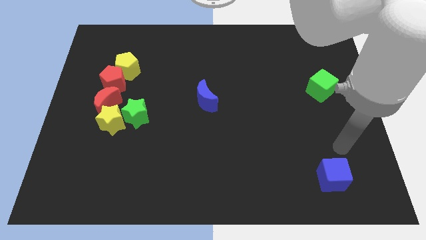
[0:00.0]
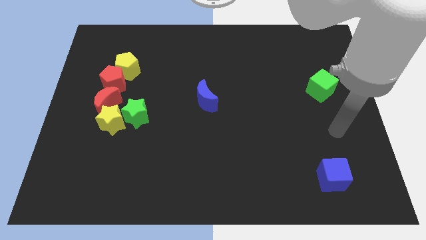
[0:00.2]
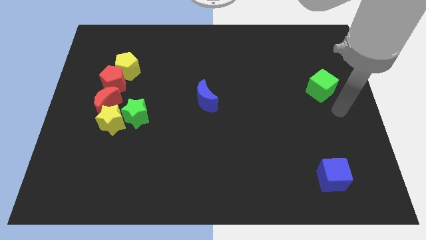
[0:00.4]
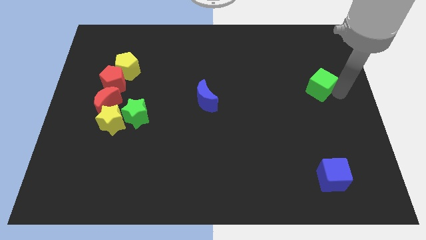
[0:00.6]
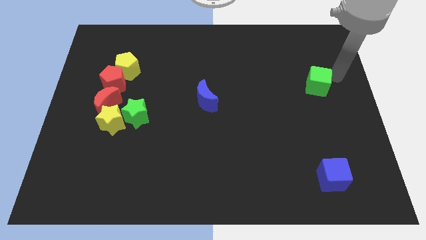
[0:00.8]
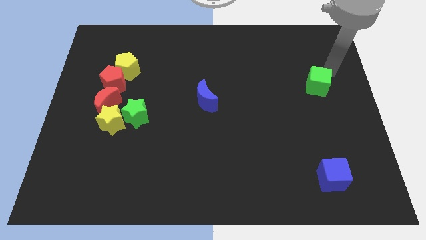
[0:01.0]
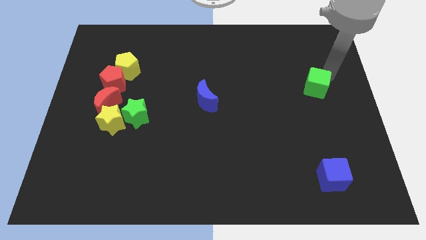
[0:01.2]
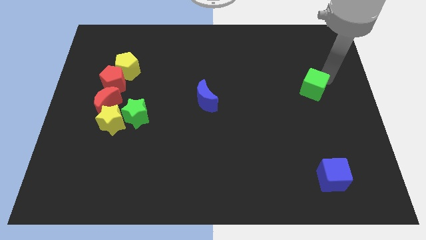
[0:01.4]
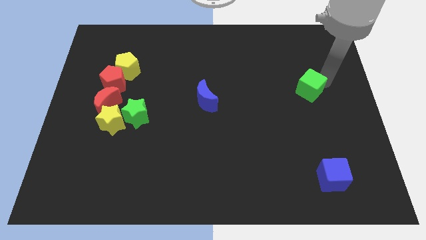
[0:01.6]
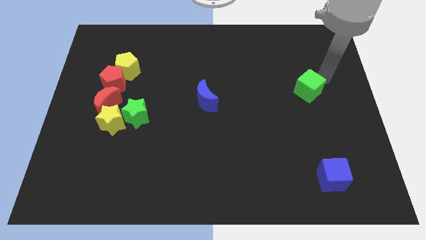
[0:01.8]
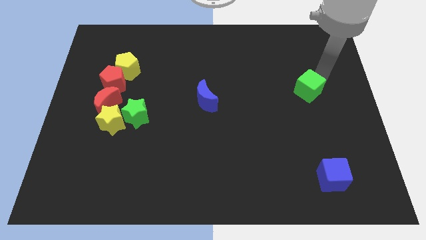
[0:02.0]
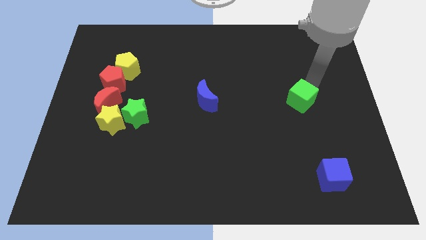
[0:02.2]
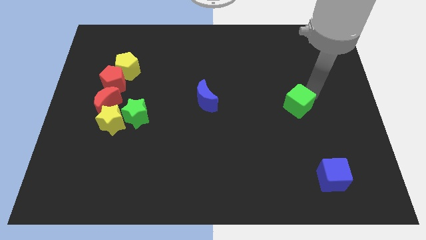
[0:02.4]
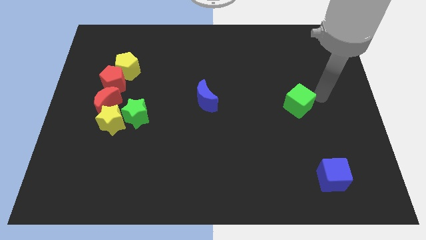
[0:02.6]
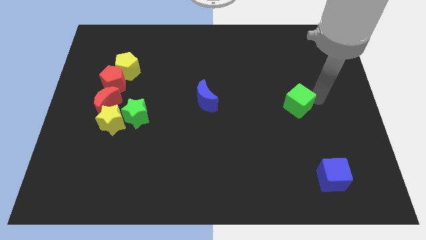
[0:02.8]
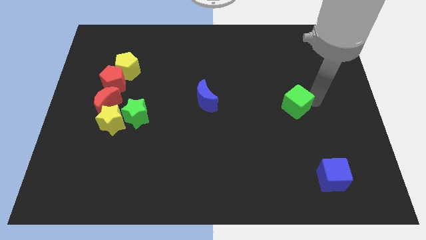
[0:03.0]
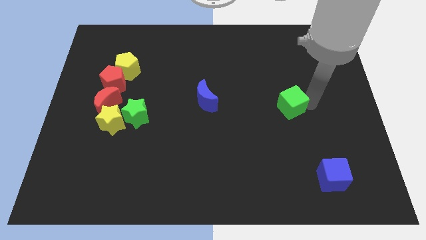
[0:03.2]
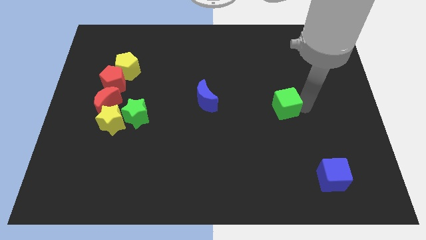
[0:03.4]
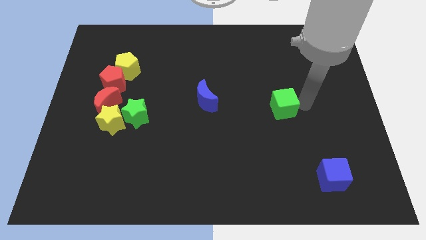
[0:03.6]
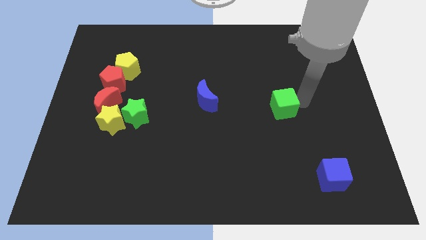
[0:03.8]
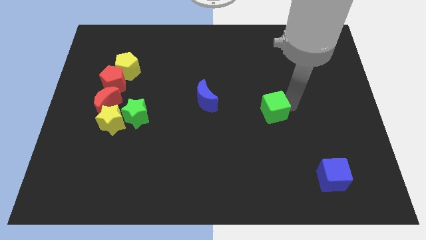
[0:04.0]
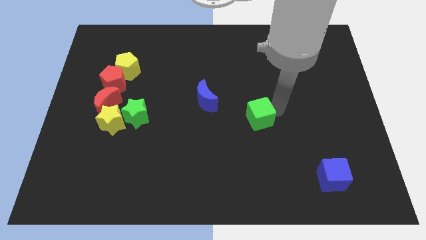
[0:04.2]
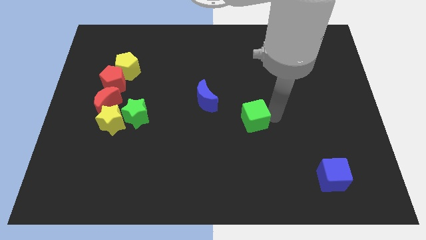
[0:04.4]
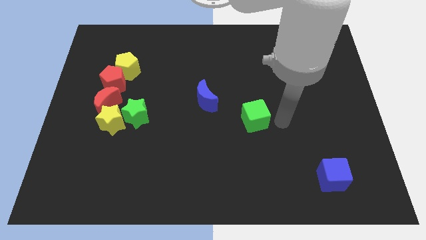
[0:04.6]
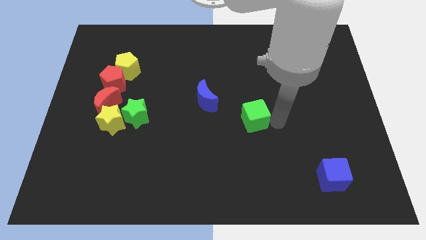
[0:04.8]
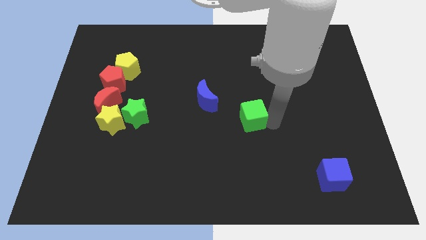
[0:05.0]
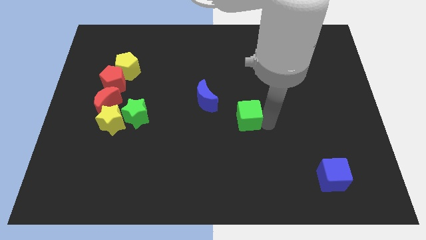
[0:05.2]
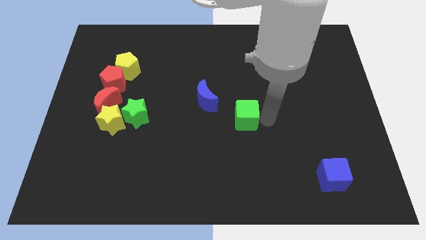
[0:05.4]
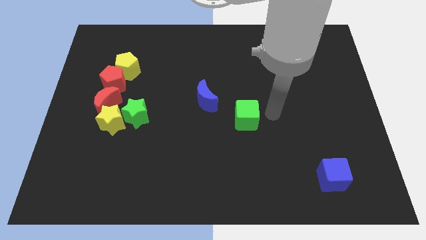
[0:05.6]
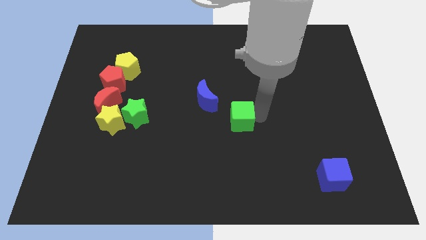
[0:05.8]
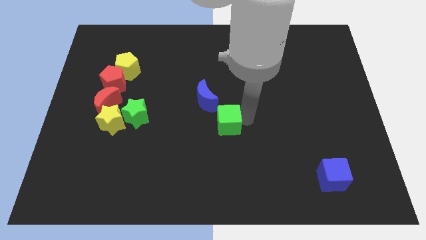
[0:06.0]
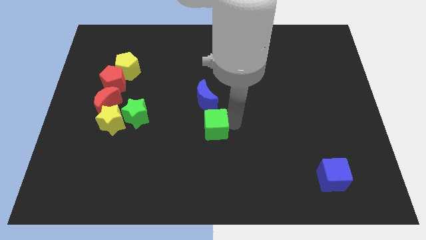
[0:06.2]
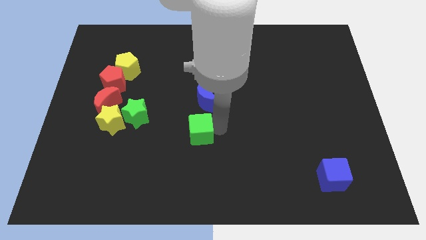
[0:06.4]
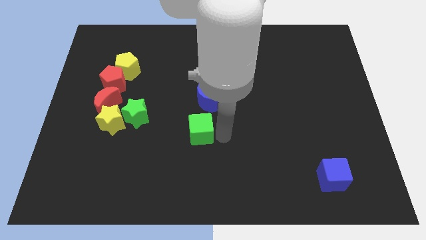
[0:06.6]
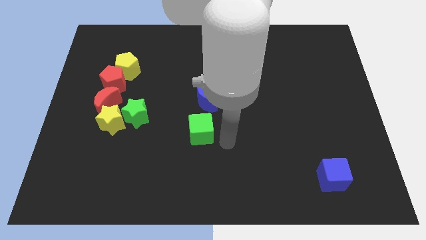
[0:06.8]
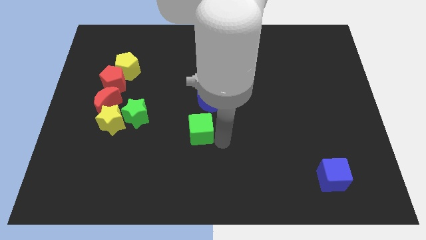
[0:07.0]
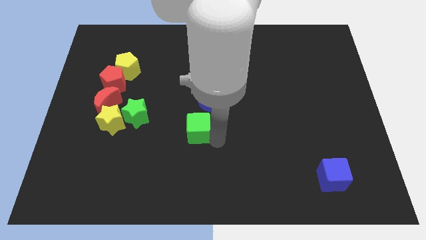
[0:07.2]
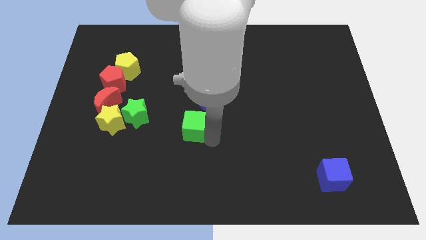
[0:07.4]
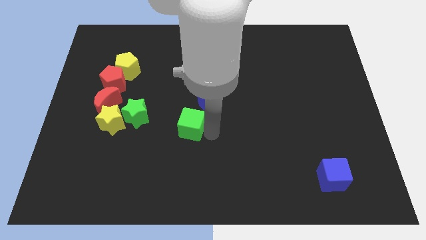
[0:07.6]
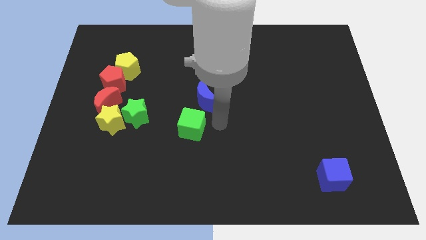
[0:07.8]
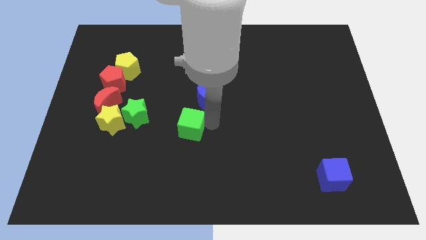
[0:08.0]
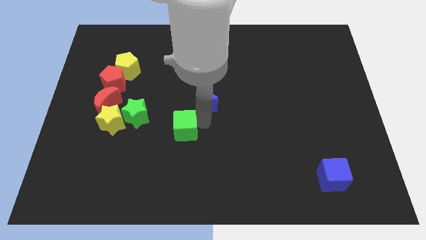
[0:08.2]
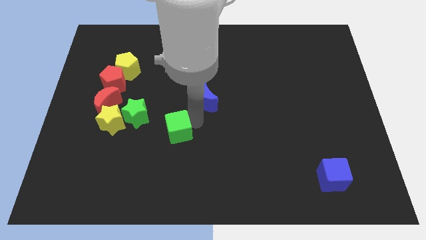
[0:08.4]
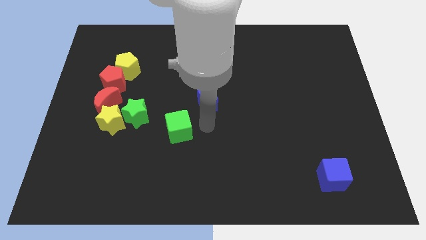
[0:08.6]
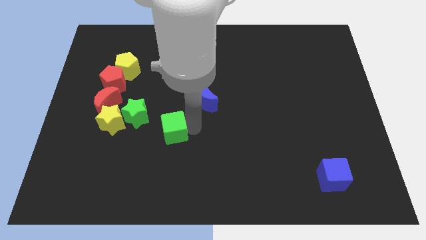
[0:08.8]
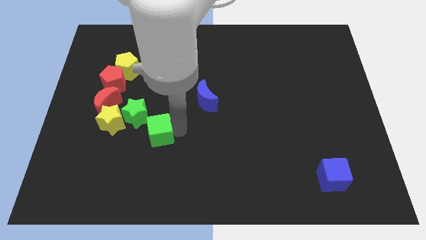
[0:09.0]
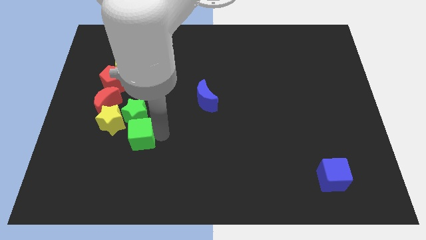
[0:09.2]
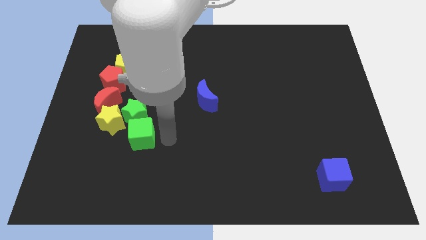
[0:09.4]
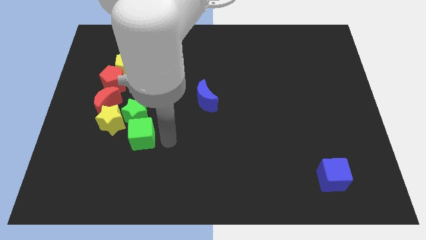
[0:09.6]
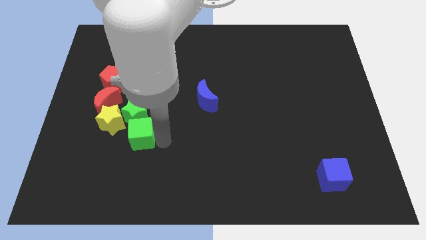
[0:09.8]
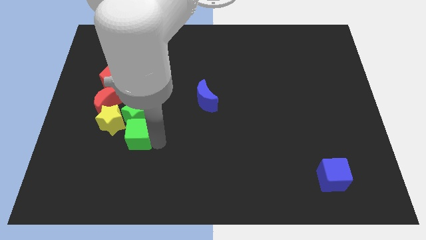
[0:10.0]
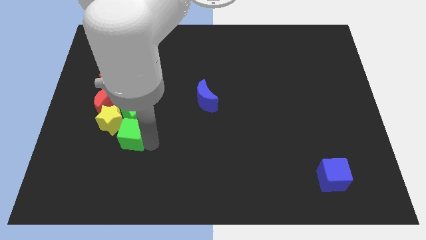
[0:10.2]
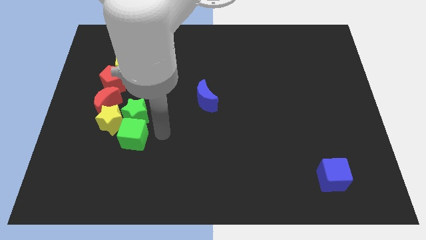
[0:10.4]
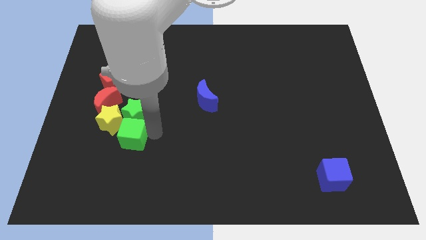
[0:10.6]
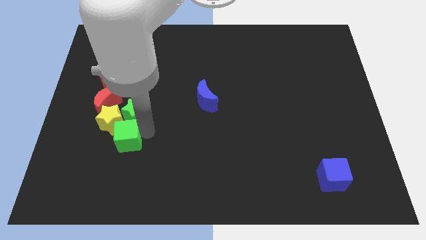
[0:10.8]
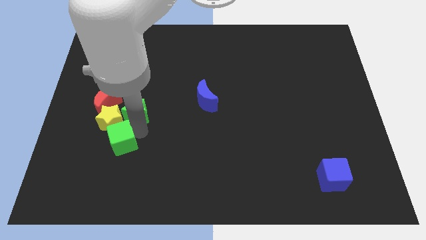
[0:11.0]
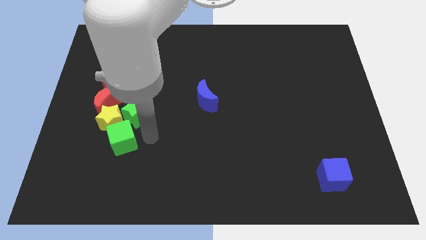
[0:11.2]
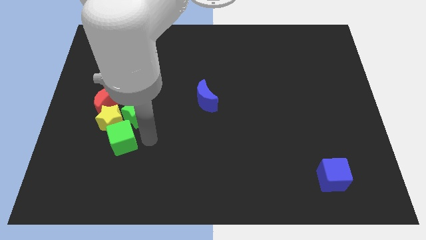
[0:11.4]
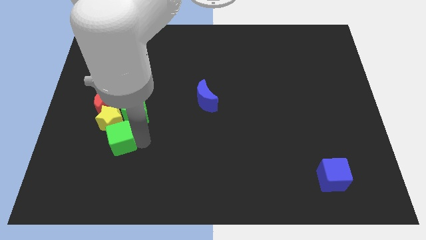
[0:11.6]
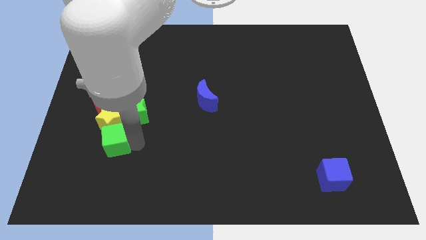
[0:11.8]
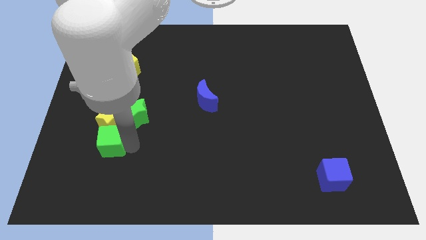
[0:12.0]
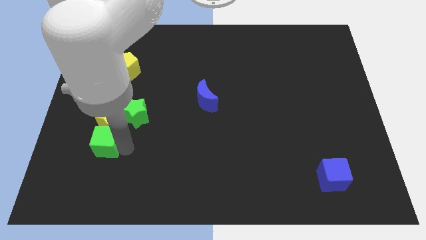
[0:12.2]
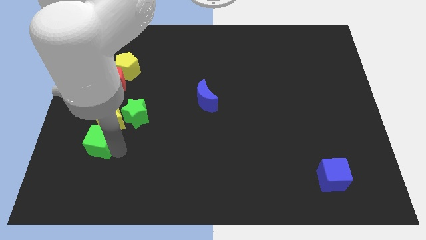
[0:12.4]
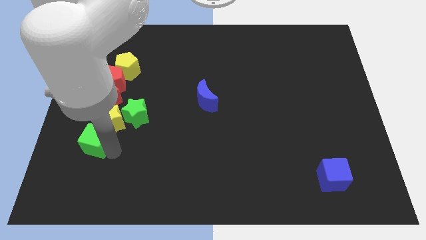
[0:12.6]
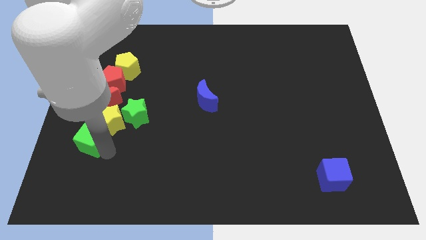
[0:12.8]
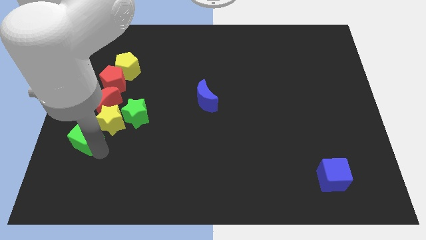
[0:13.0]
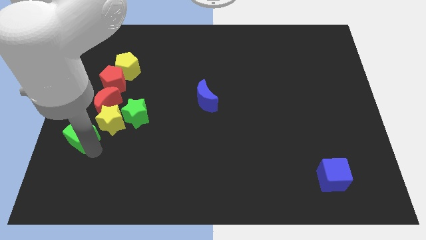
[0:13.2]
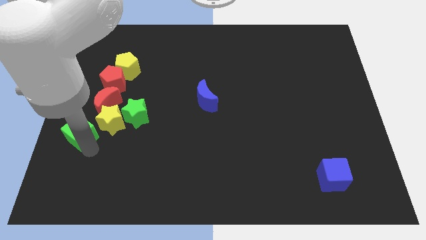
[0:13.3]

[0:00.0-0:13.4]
put the green cube to the left side of the board
